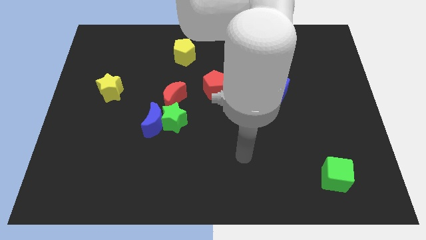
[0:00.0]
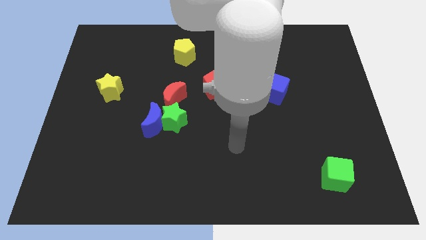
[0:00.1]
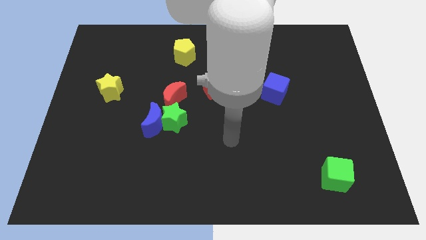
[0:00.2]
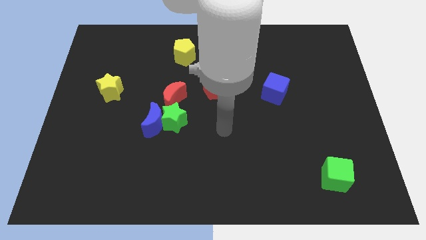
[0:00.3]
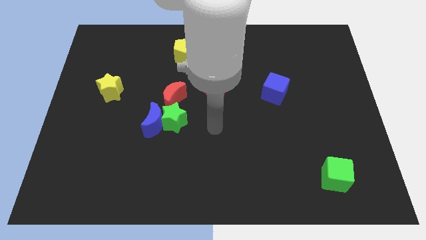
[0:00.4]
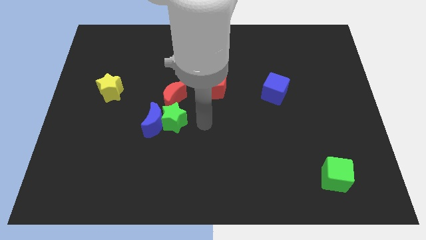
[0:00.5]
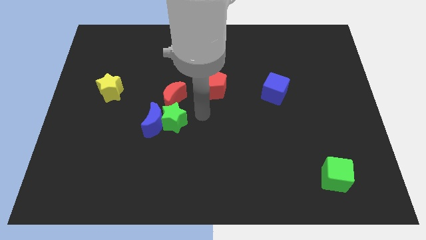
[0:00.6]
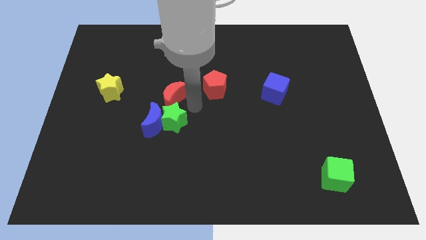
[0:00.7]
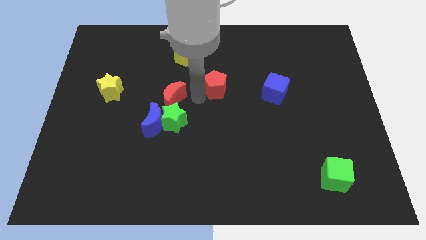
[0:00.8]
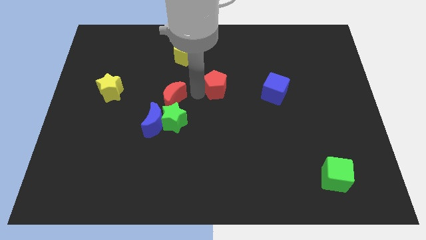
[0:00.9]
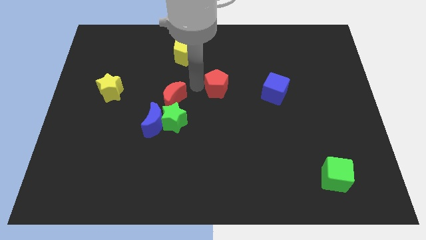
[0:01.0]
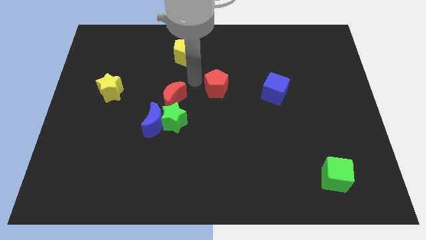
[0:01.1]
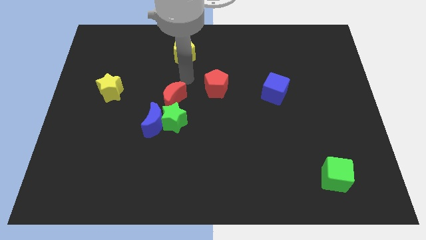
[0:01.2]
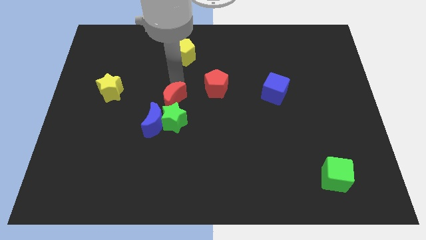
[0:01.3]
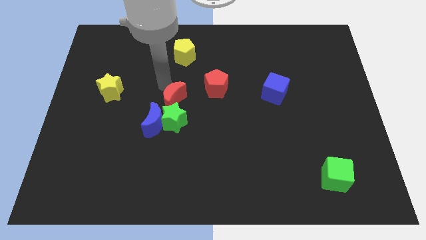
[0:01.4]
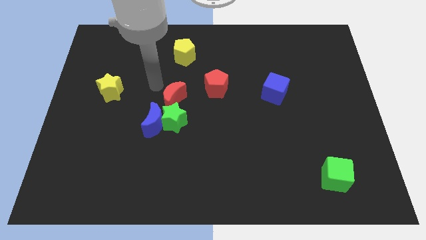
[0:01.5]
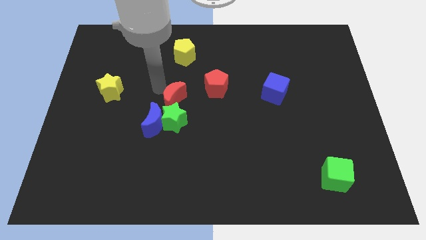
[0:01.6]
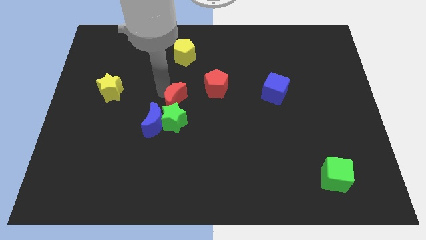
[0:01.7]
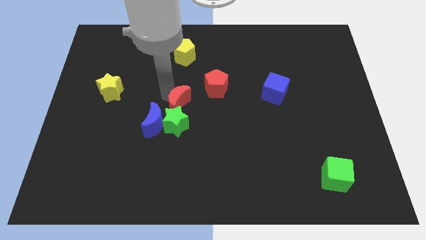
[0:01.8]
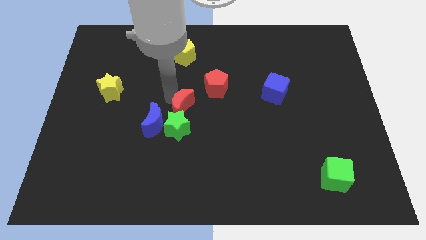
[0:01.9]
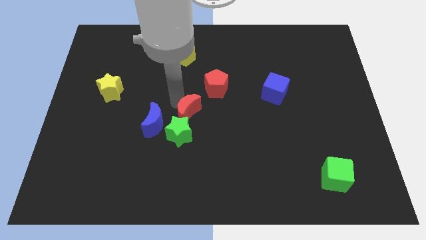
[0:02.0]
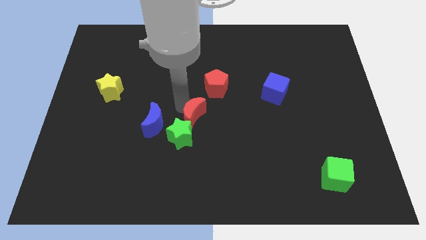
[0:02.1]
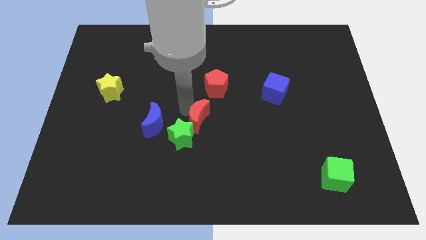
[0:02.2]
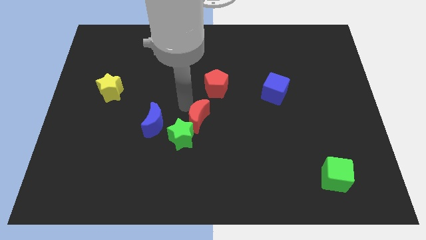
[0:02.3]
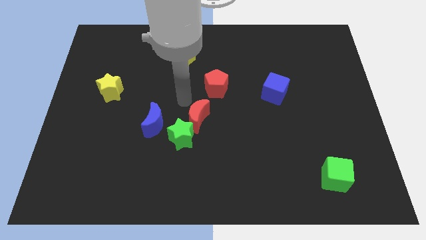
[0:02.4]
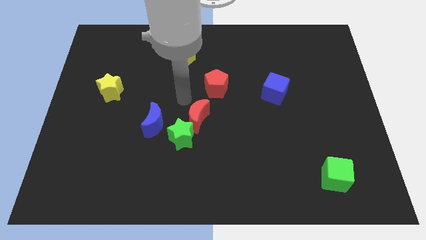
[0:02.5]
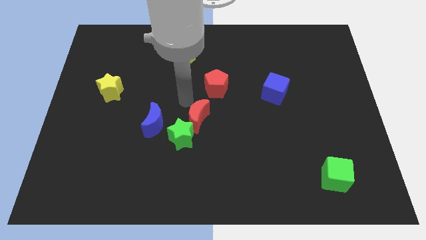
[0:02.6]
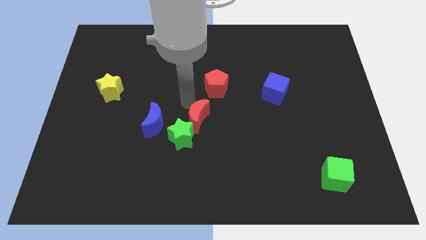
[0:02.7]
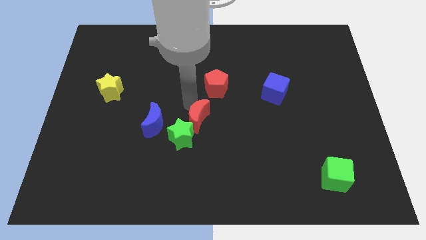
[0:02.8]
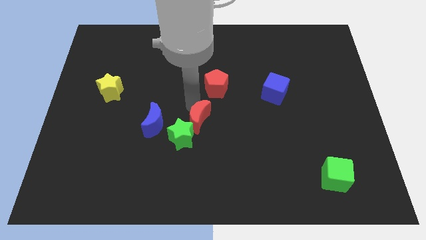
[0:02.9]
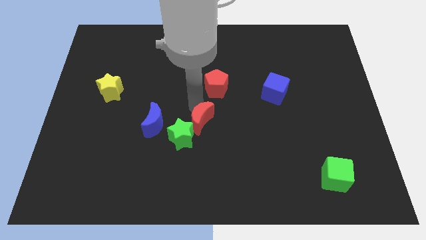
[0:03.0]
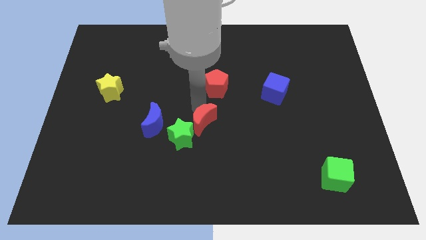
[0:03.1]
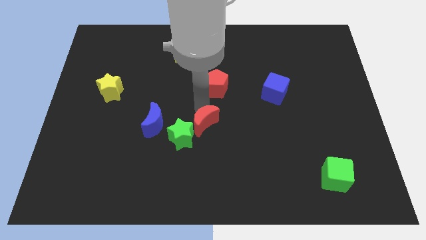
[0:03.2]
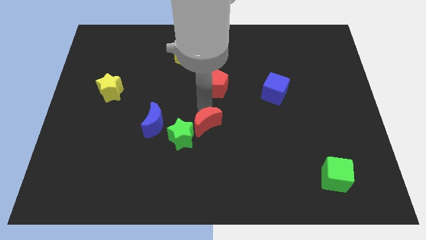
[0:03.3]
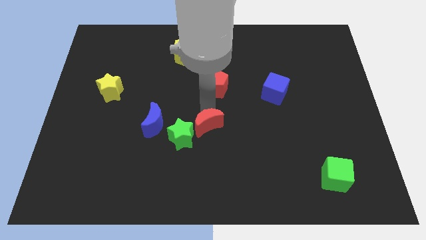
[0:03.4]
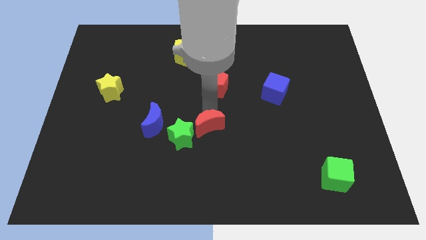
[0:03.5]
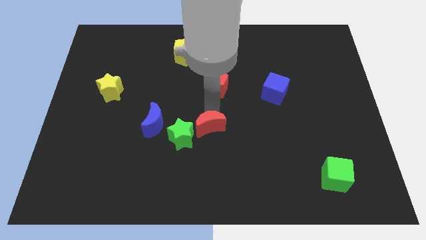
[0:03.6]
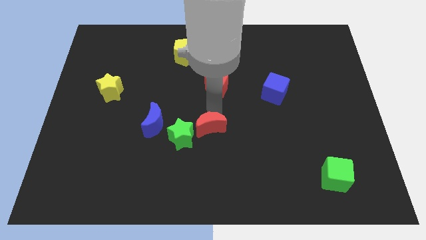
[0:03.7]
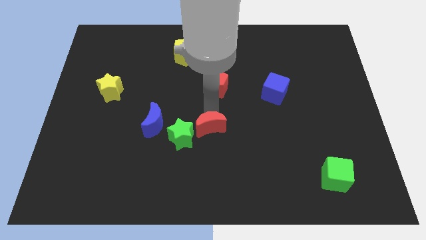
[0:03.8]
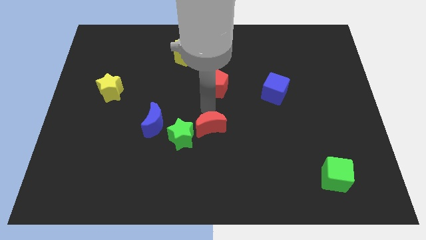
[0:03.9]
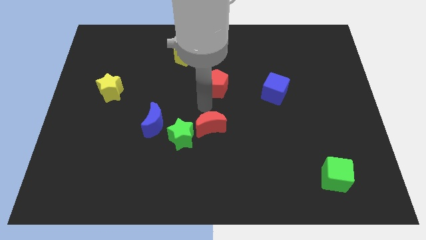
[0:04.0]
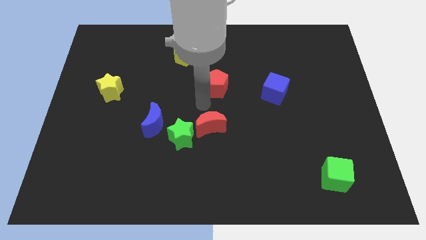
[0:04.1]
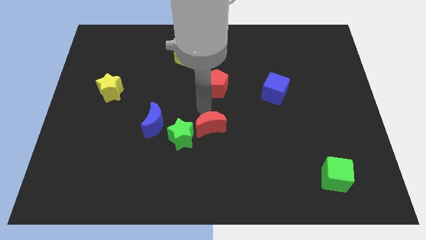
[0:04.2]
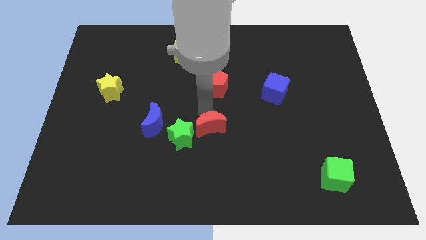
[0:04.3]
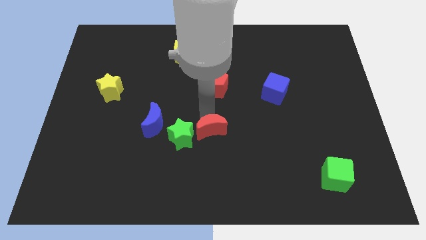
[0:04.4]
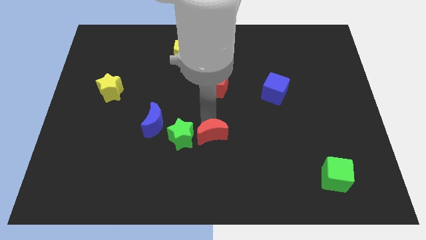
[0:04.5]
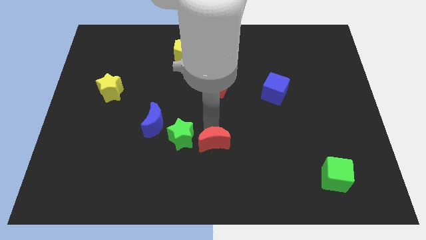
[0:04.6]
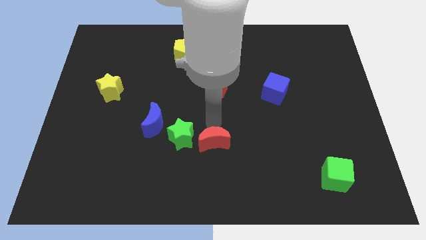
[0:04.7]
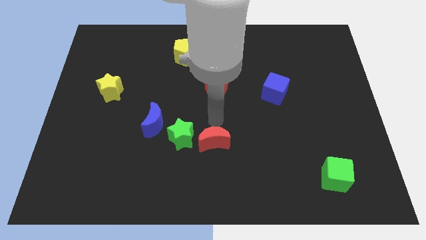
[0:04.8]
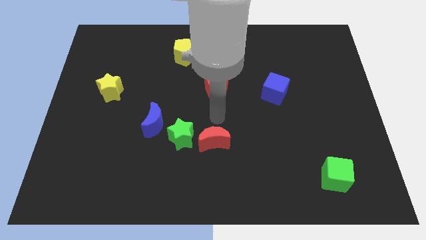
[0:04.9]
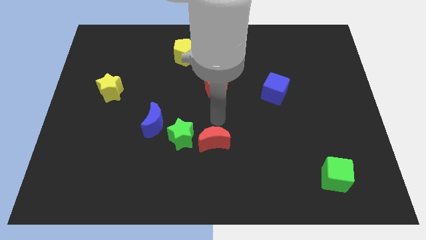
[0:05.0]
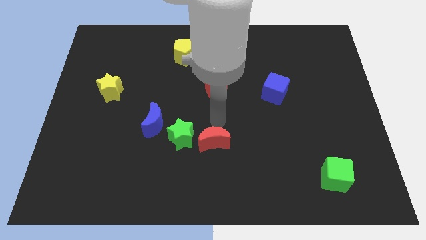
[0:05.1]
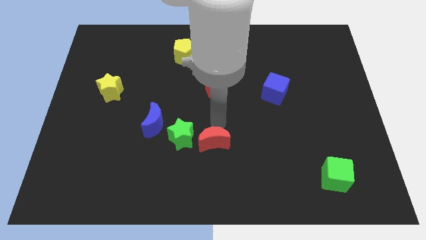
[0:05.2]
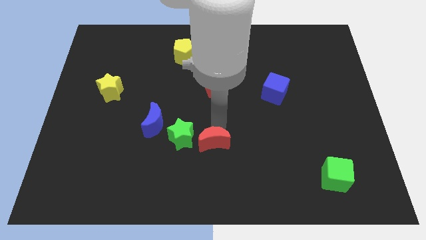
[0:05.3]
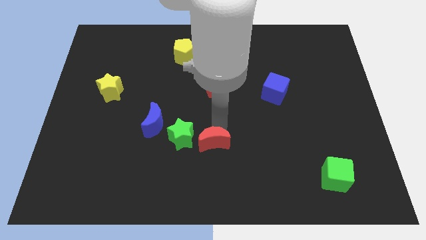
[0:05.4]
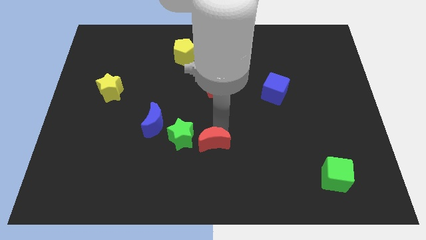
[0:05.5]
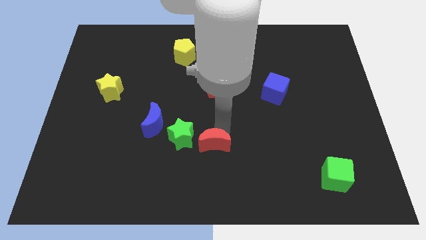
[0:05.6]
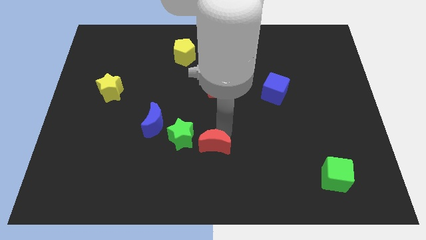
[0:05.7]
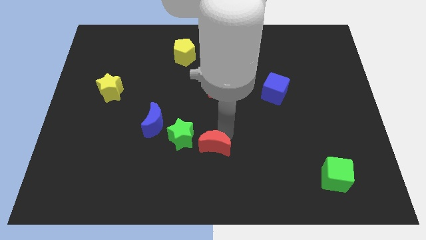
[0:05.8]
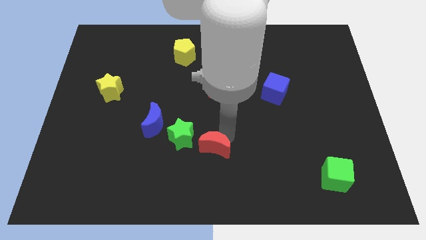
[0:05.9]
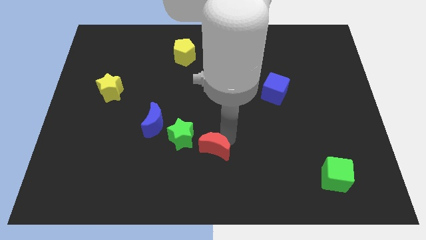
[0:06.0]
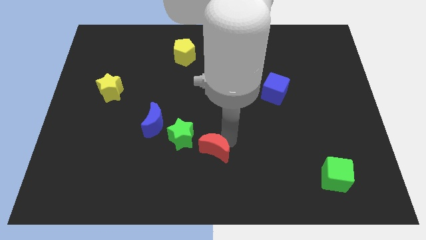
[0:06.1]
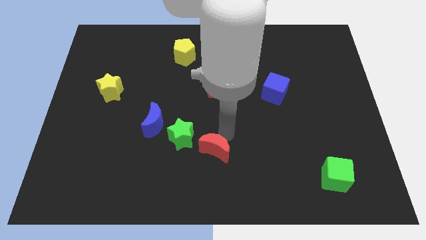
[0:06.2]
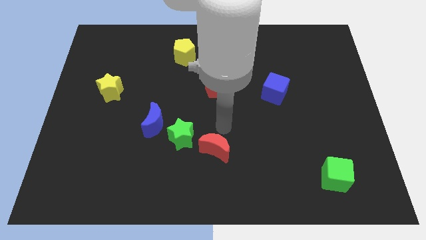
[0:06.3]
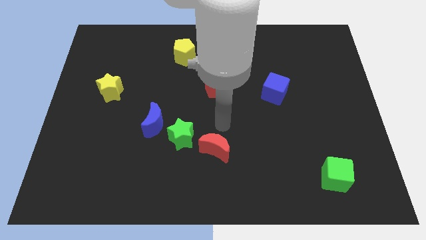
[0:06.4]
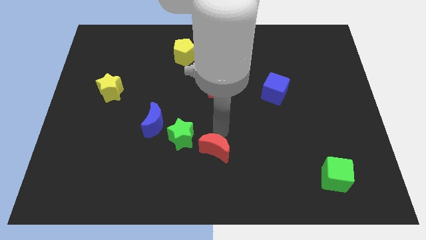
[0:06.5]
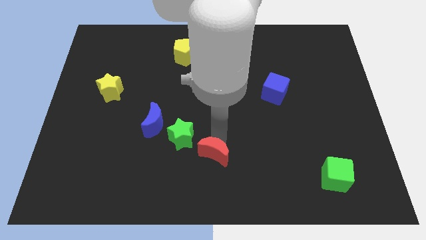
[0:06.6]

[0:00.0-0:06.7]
slide the red moon to the bottom side
